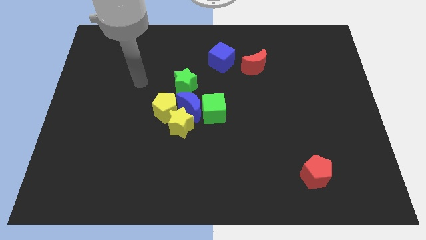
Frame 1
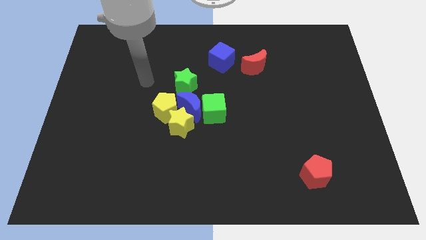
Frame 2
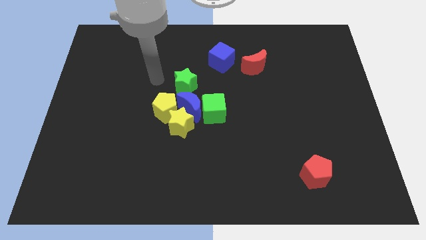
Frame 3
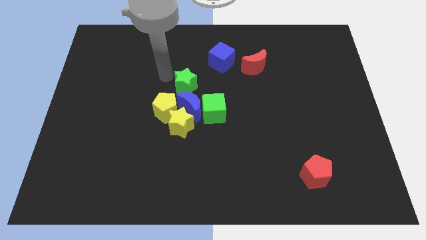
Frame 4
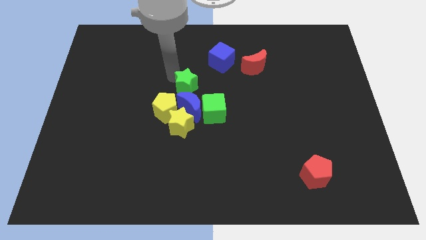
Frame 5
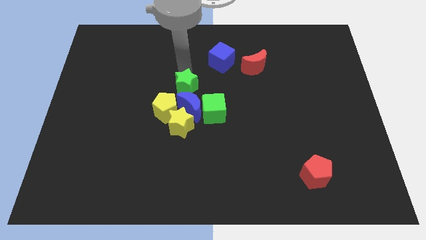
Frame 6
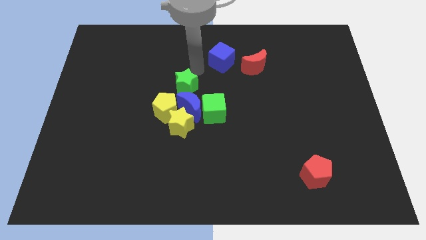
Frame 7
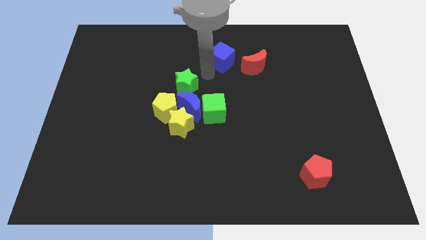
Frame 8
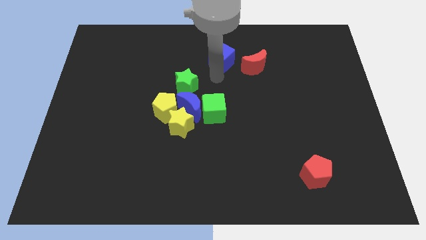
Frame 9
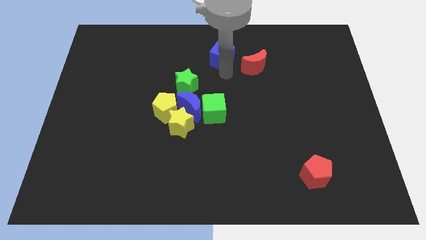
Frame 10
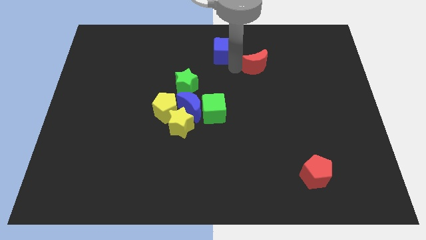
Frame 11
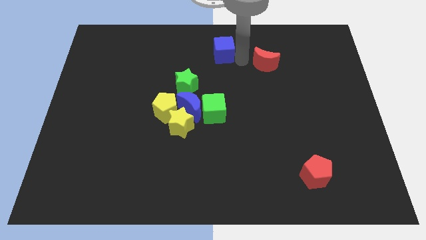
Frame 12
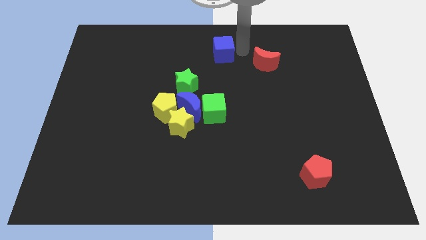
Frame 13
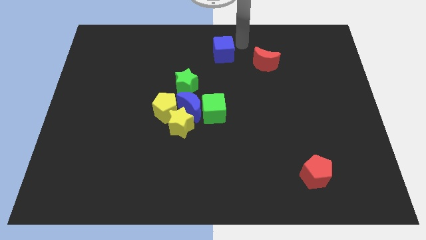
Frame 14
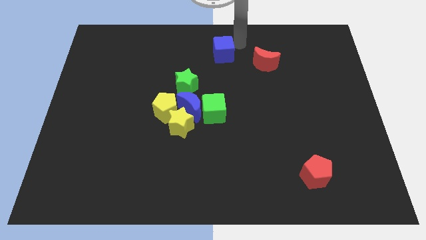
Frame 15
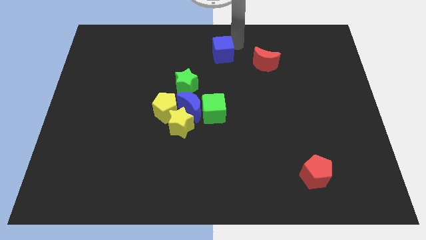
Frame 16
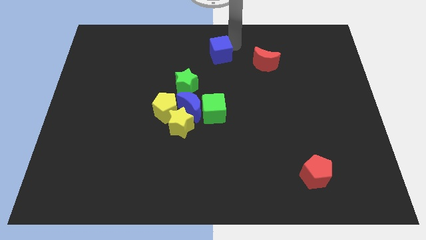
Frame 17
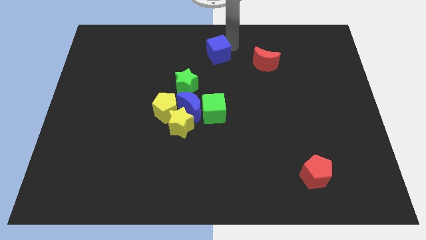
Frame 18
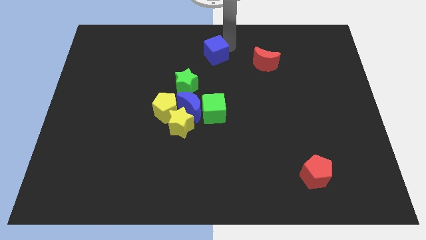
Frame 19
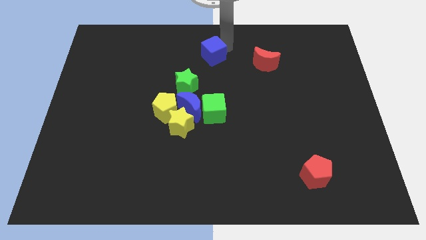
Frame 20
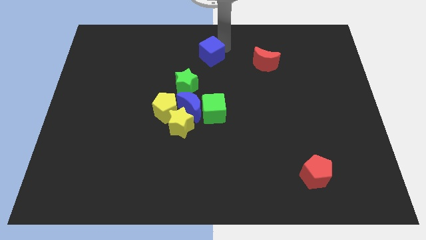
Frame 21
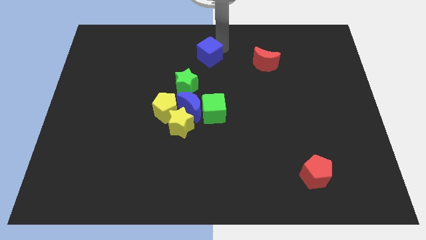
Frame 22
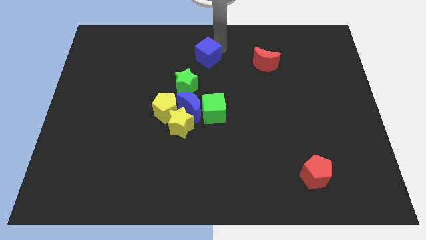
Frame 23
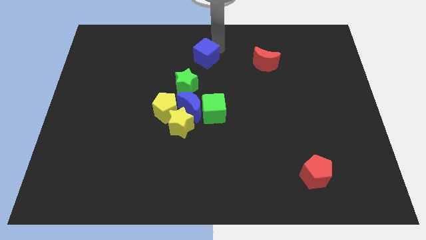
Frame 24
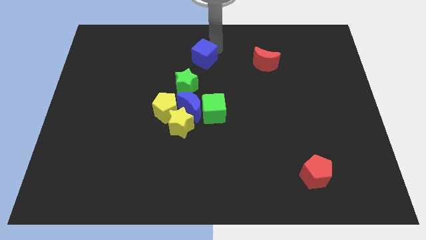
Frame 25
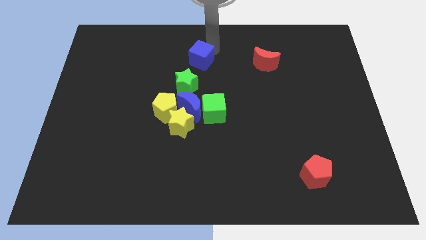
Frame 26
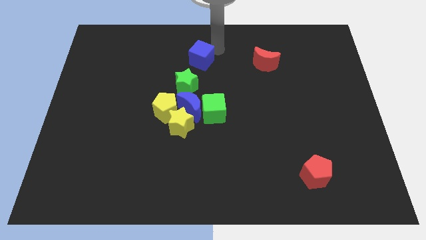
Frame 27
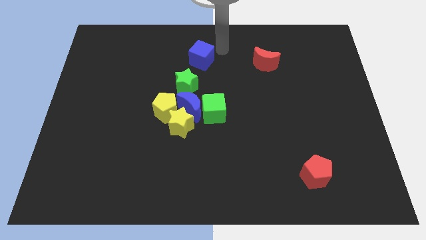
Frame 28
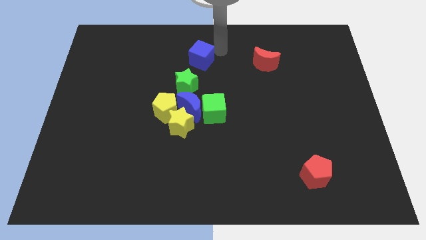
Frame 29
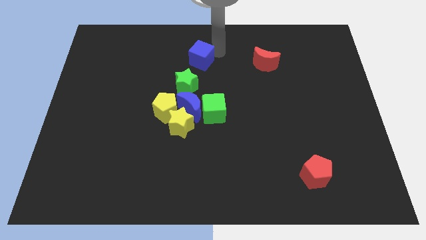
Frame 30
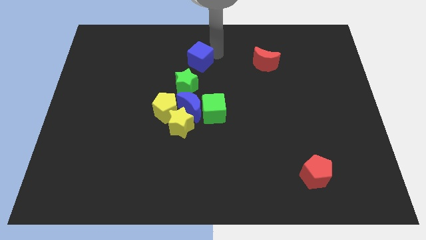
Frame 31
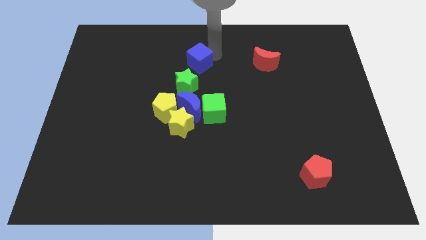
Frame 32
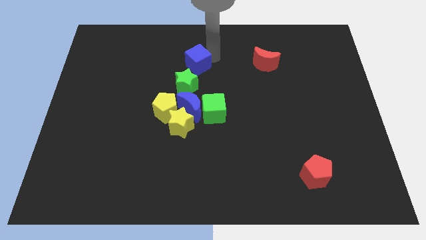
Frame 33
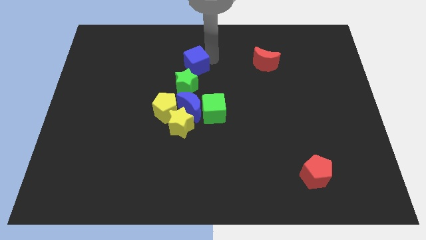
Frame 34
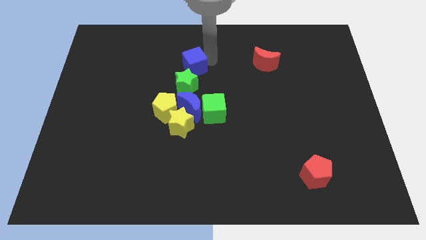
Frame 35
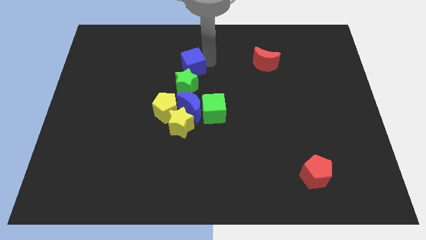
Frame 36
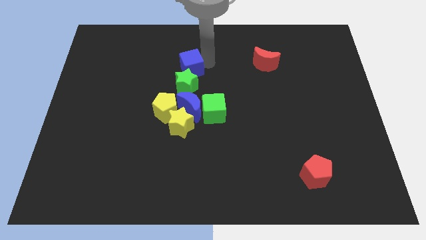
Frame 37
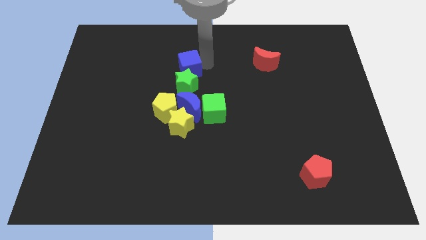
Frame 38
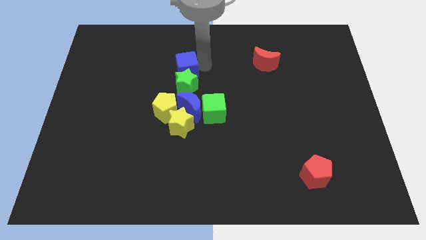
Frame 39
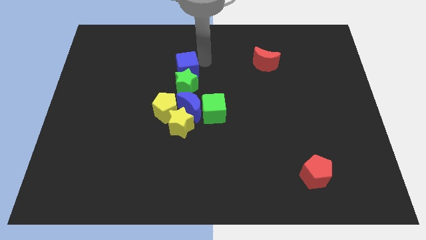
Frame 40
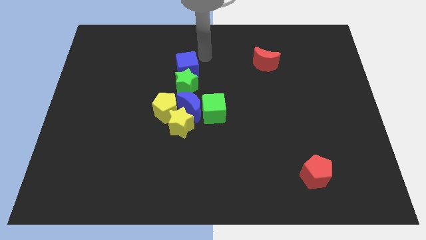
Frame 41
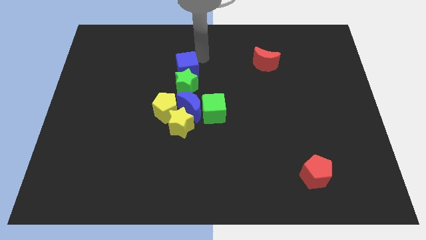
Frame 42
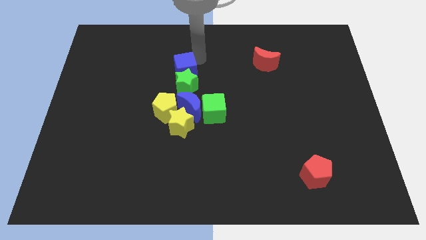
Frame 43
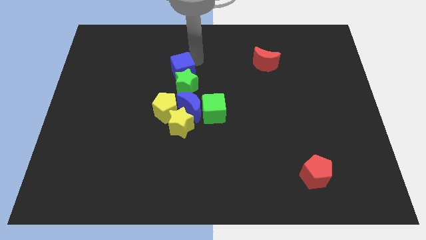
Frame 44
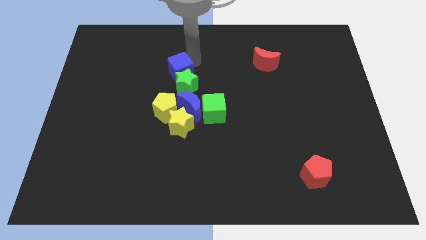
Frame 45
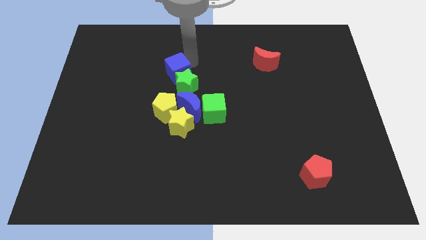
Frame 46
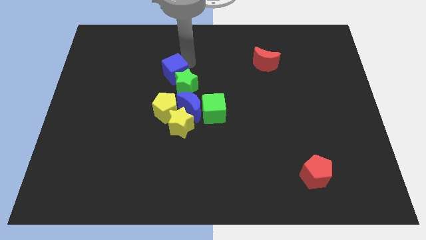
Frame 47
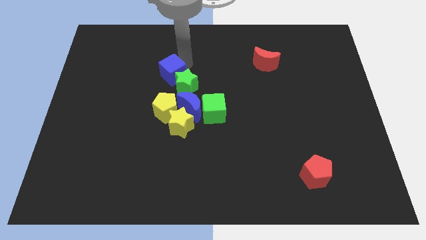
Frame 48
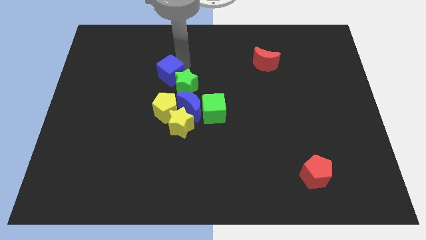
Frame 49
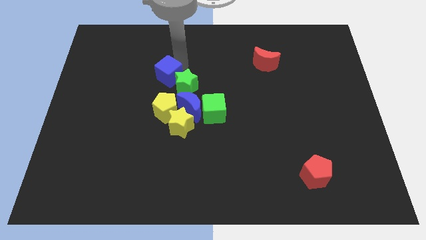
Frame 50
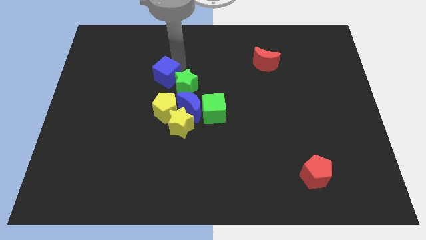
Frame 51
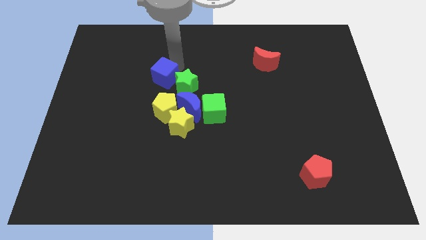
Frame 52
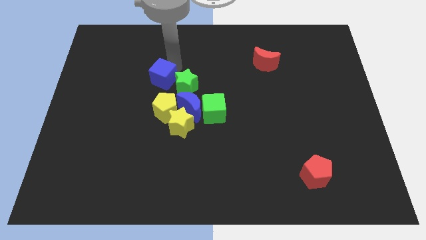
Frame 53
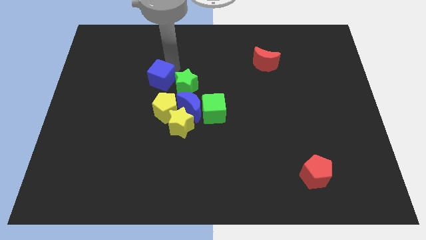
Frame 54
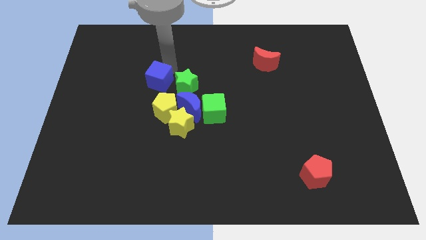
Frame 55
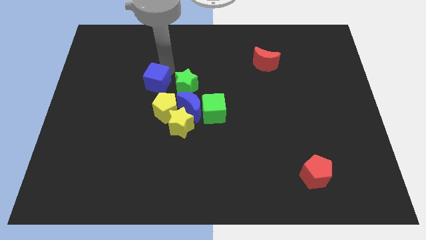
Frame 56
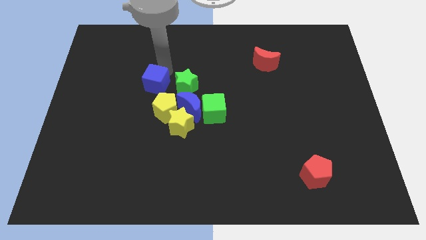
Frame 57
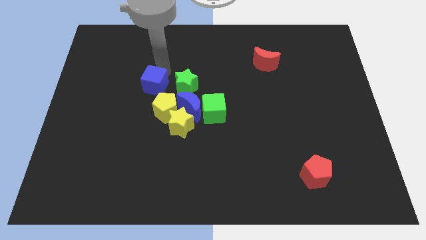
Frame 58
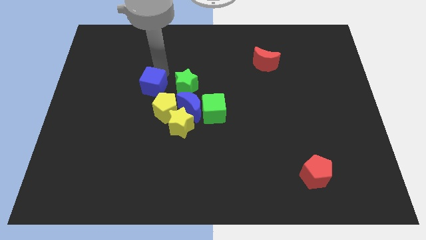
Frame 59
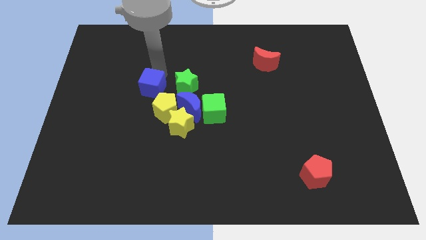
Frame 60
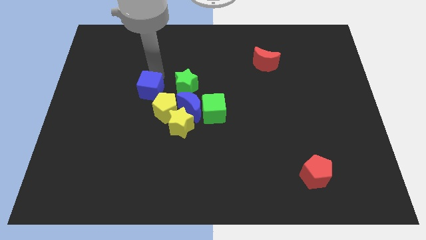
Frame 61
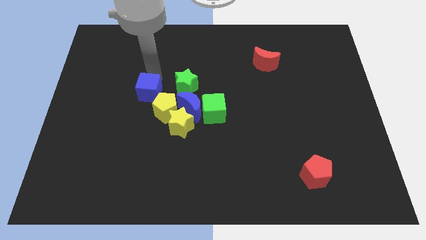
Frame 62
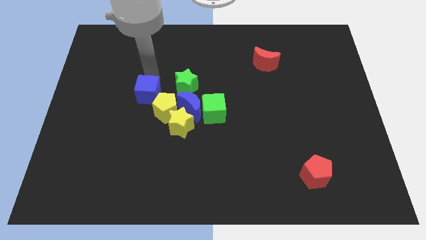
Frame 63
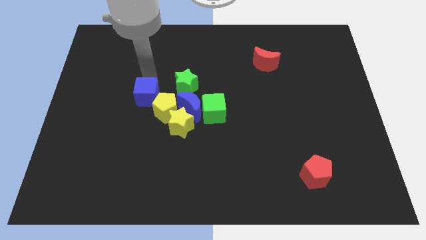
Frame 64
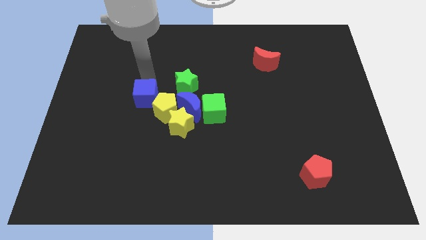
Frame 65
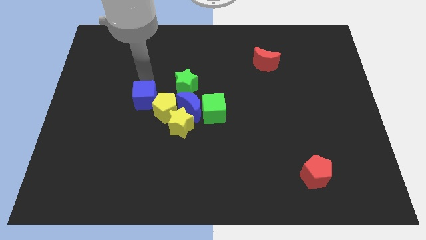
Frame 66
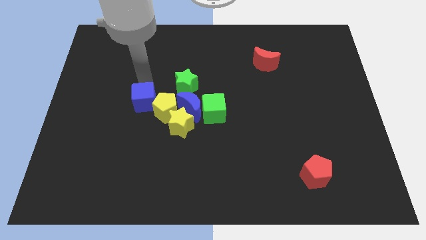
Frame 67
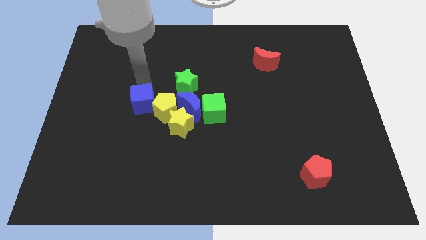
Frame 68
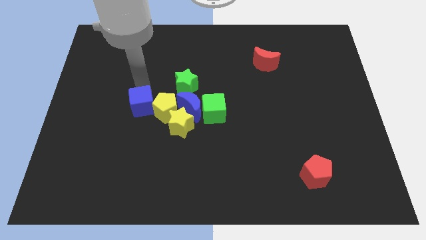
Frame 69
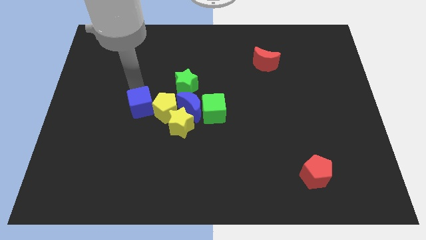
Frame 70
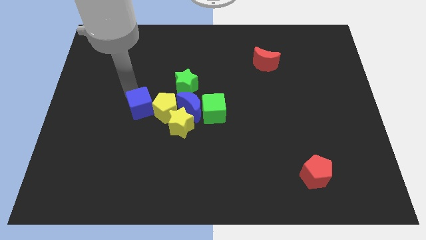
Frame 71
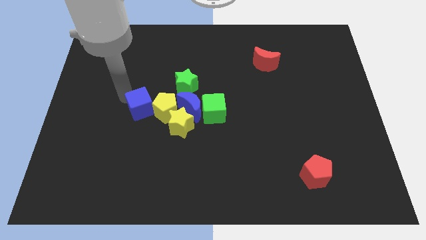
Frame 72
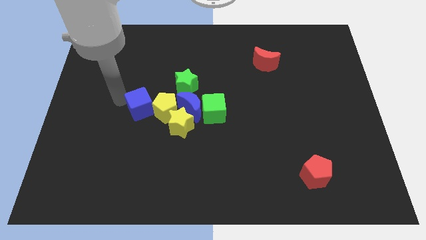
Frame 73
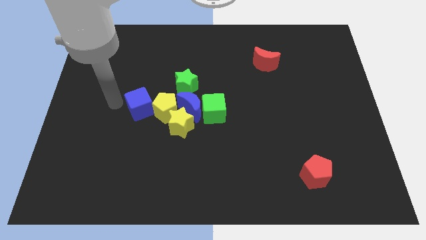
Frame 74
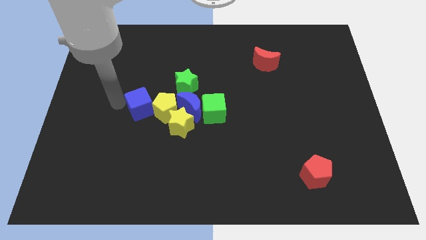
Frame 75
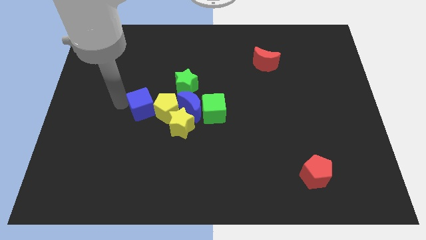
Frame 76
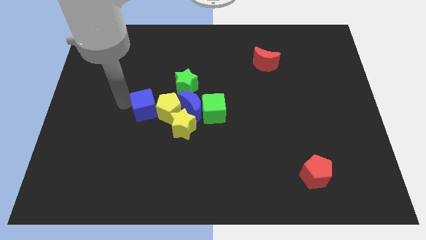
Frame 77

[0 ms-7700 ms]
move the blue cube just left of the green cube

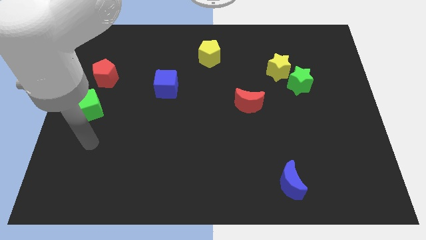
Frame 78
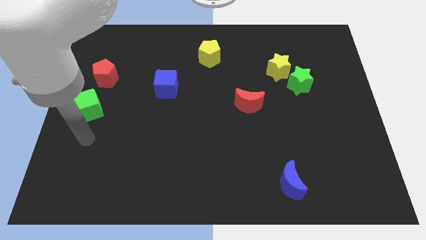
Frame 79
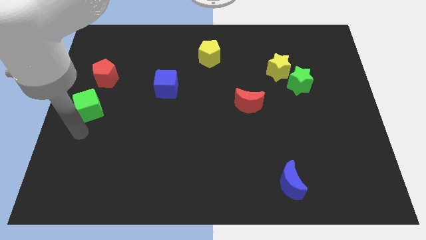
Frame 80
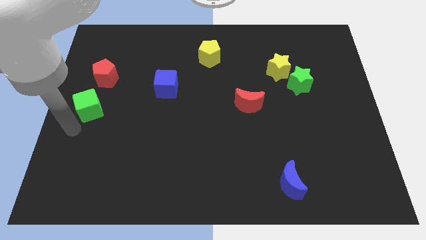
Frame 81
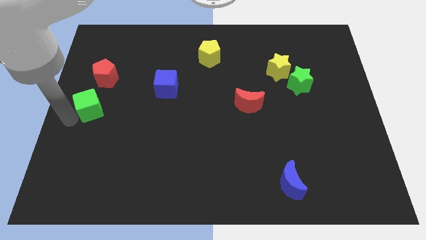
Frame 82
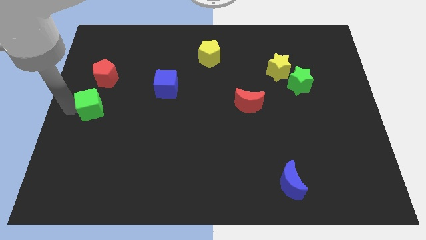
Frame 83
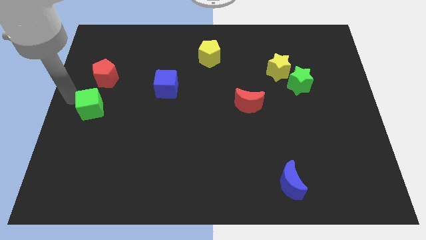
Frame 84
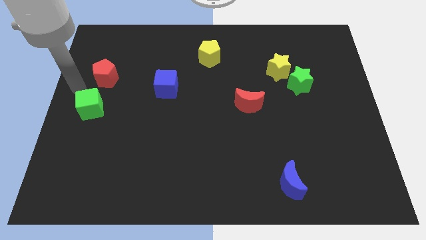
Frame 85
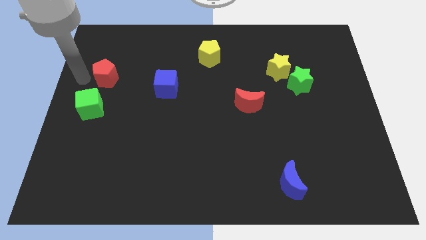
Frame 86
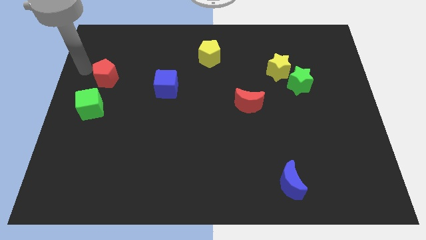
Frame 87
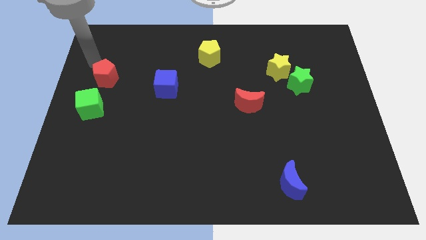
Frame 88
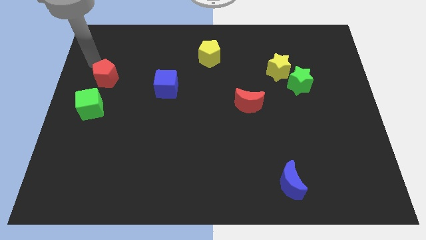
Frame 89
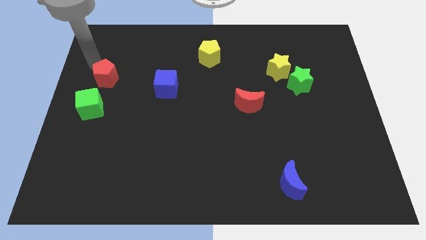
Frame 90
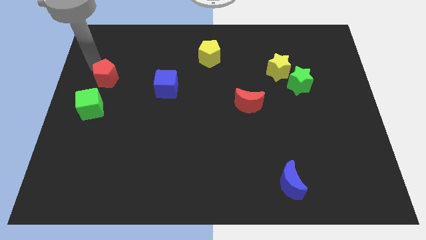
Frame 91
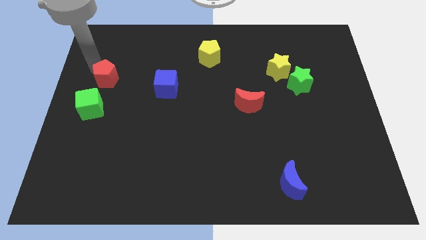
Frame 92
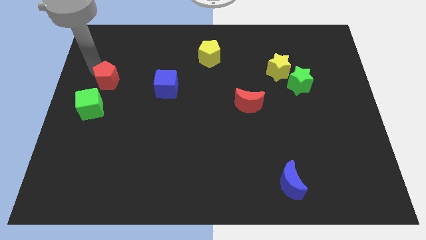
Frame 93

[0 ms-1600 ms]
move the red pentagon diagonally up and to the right of the green cube
